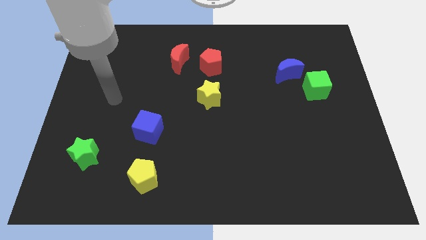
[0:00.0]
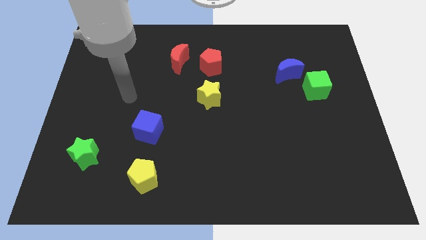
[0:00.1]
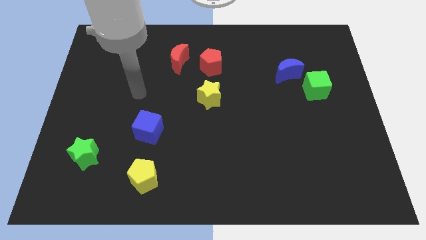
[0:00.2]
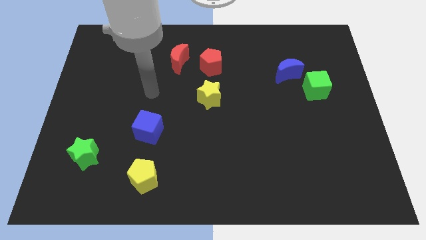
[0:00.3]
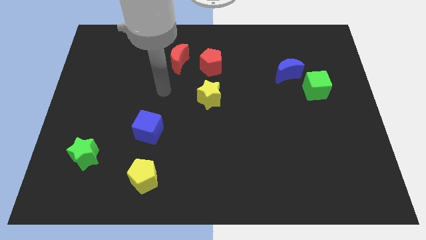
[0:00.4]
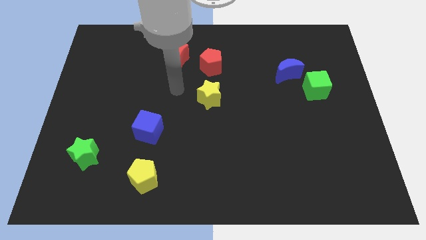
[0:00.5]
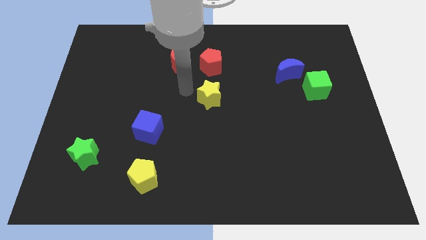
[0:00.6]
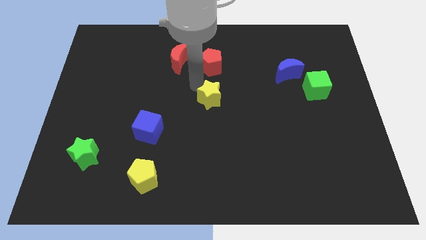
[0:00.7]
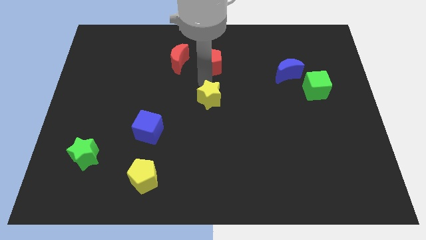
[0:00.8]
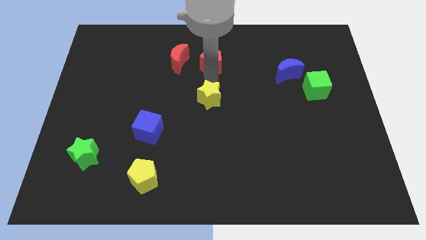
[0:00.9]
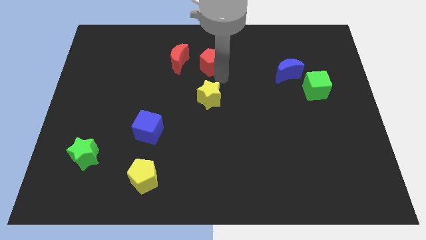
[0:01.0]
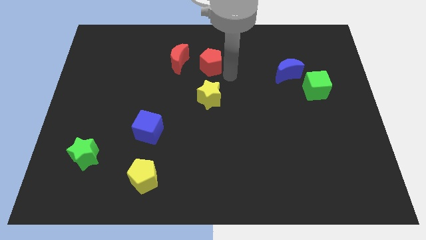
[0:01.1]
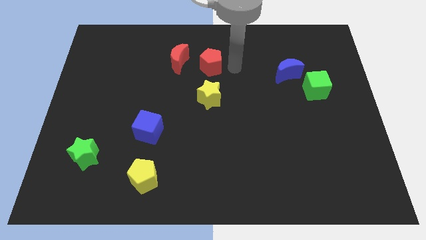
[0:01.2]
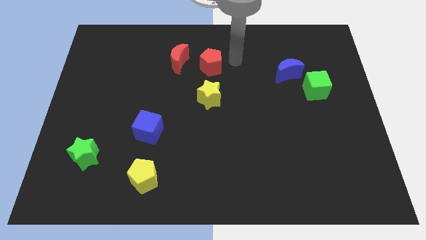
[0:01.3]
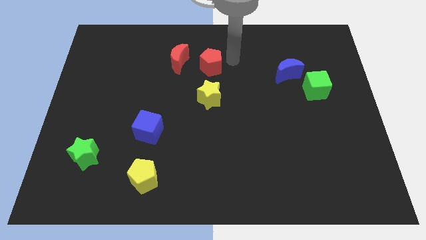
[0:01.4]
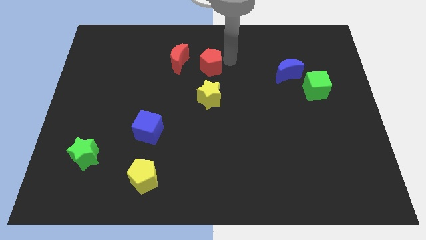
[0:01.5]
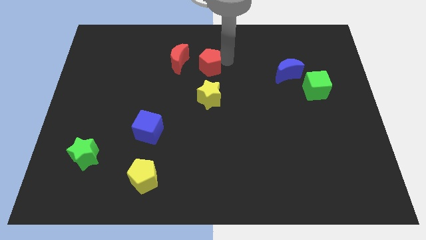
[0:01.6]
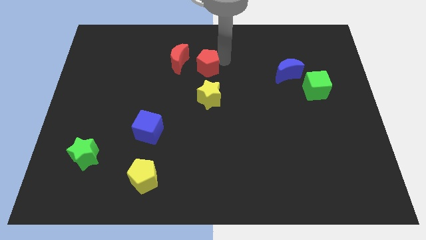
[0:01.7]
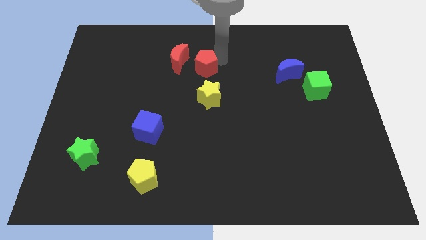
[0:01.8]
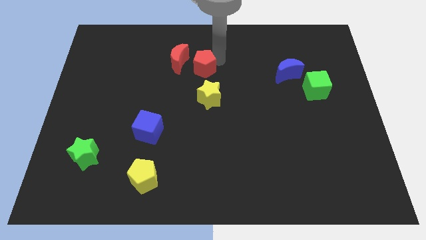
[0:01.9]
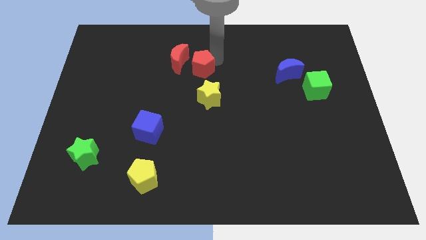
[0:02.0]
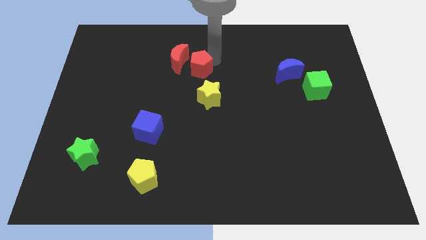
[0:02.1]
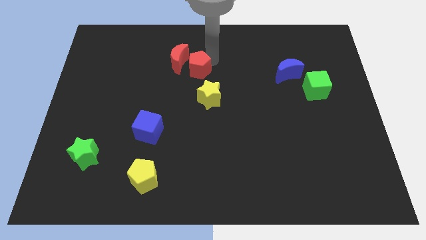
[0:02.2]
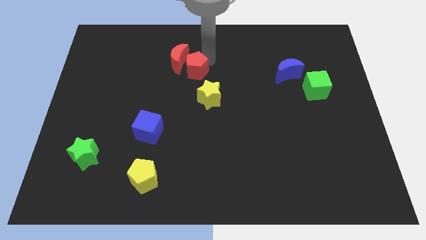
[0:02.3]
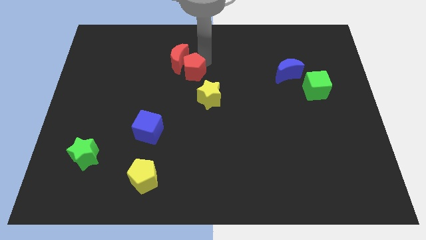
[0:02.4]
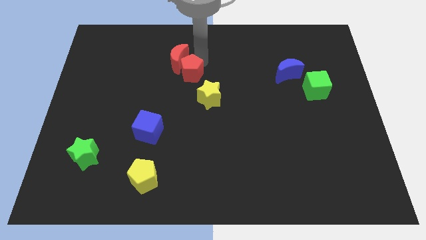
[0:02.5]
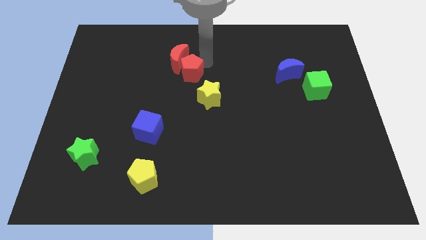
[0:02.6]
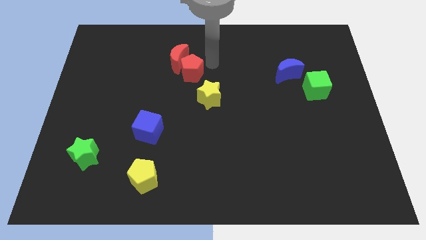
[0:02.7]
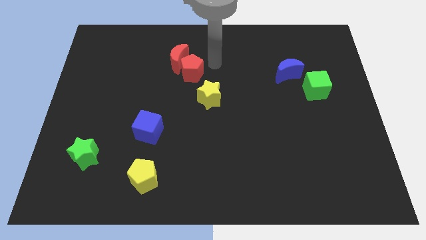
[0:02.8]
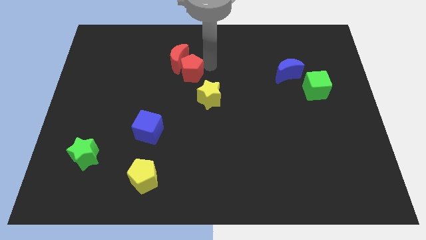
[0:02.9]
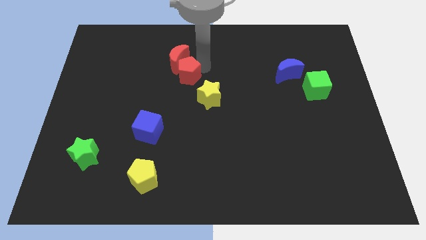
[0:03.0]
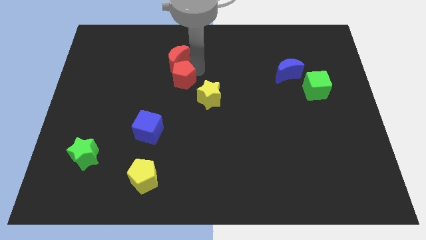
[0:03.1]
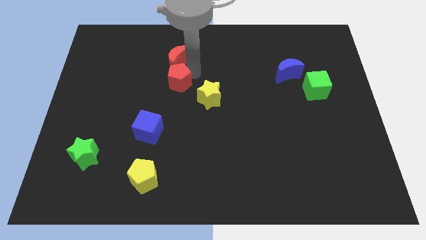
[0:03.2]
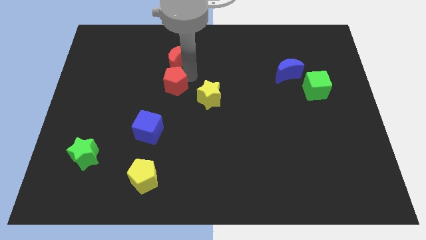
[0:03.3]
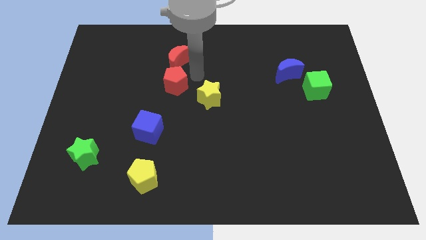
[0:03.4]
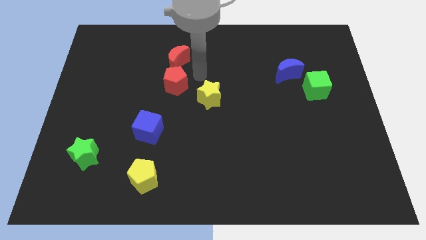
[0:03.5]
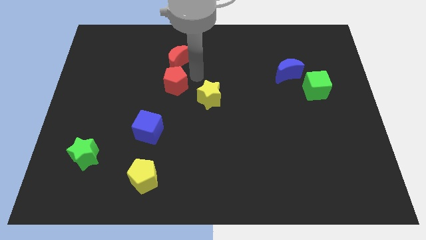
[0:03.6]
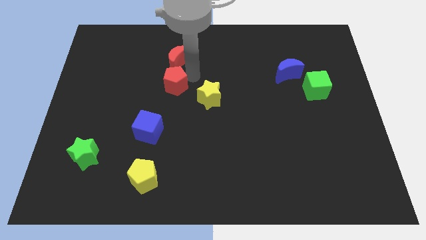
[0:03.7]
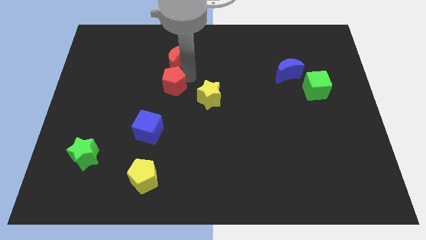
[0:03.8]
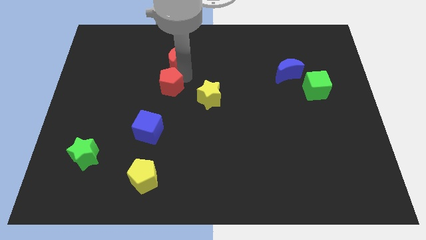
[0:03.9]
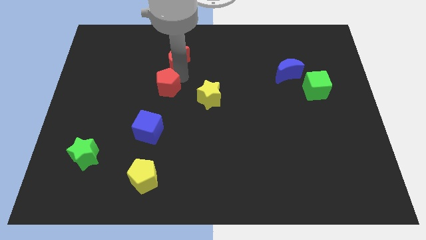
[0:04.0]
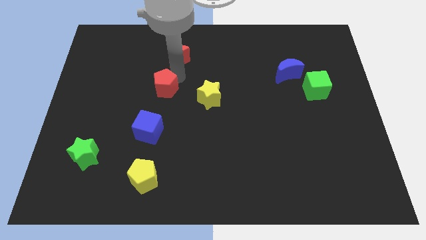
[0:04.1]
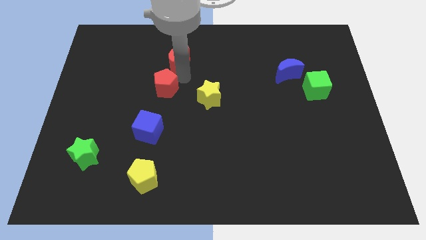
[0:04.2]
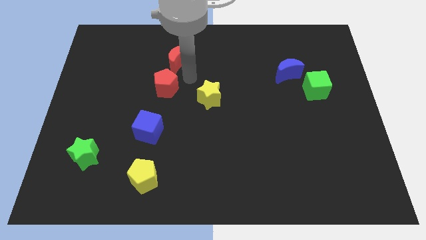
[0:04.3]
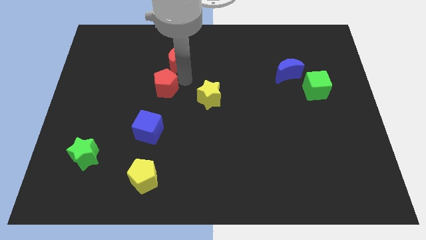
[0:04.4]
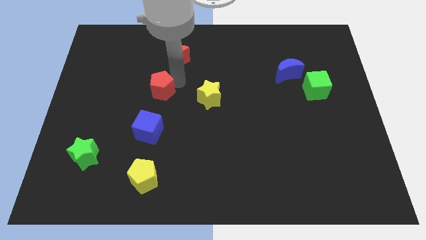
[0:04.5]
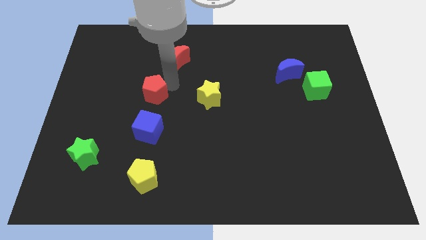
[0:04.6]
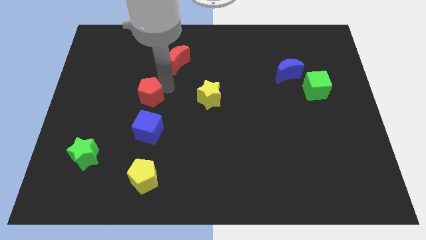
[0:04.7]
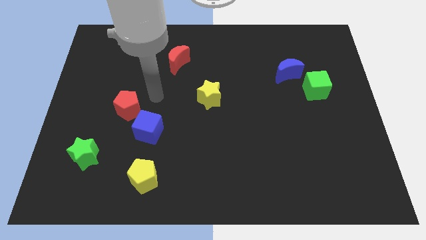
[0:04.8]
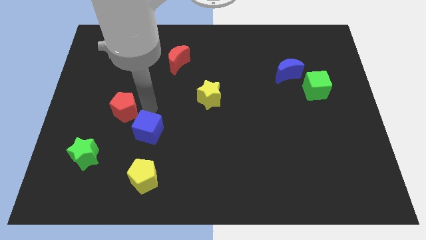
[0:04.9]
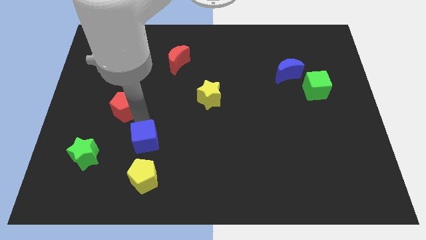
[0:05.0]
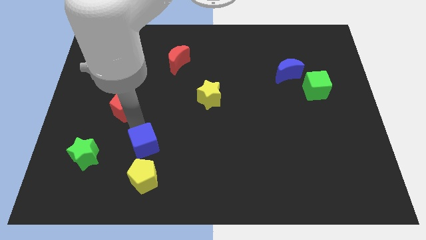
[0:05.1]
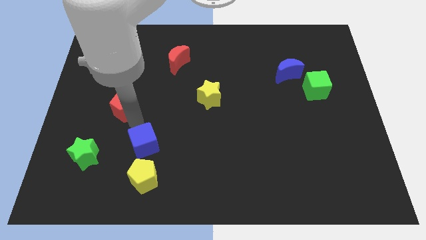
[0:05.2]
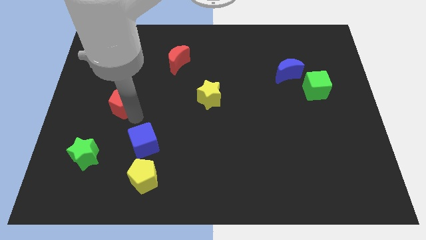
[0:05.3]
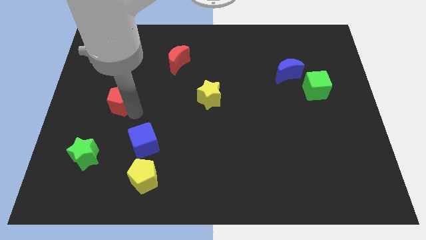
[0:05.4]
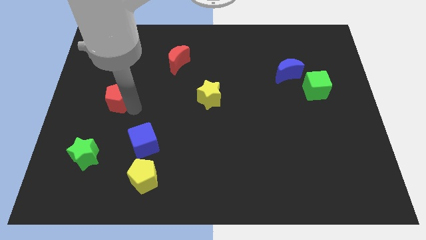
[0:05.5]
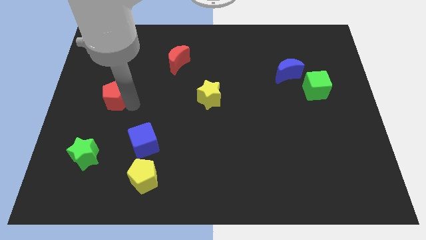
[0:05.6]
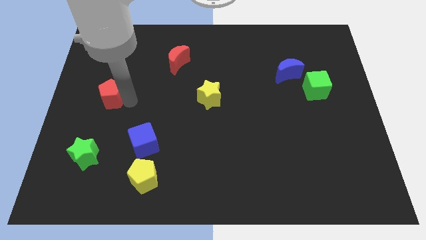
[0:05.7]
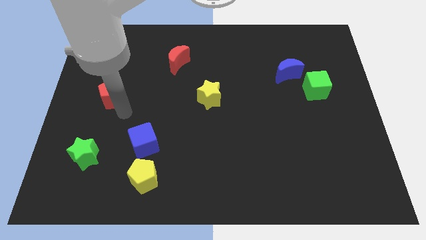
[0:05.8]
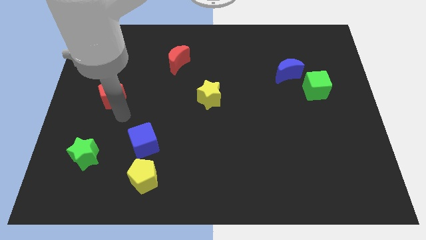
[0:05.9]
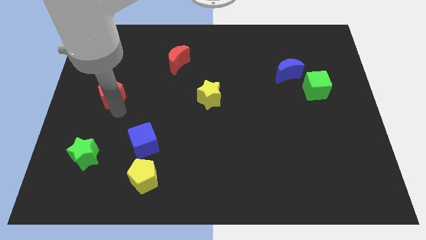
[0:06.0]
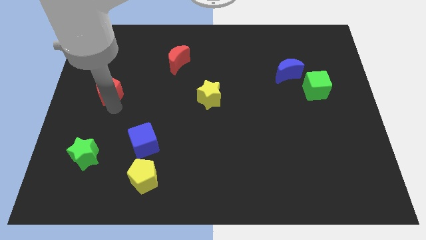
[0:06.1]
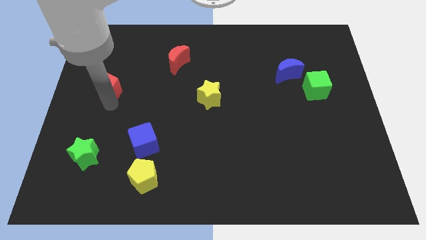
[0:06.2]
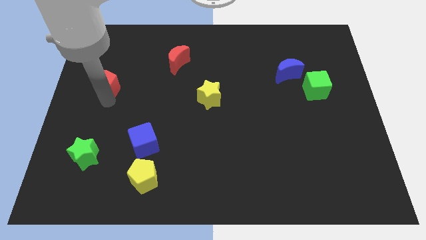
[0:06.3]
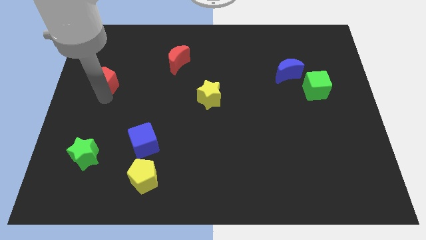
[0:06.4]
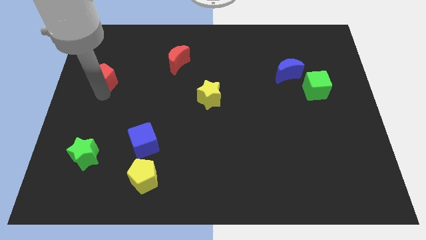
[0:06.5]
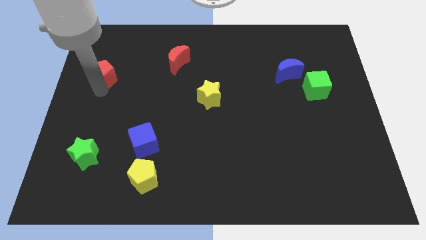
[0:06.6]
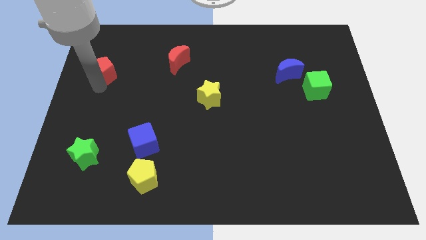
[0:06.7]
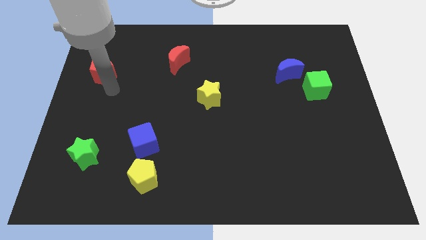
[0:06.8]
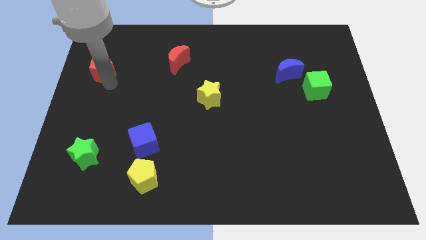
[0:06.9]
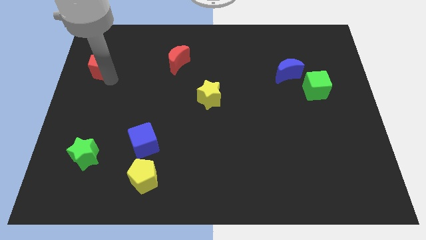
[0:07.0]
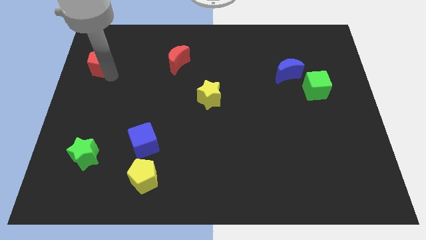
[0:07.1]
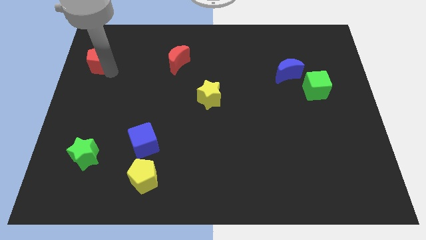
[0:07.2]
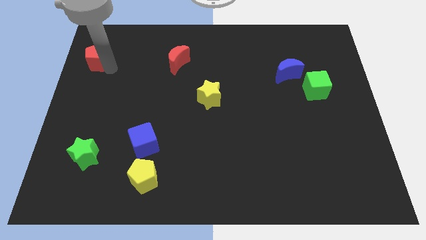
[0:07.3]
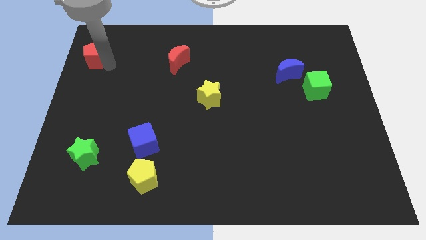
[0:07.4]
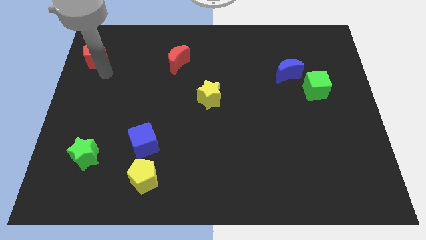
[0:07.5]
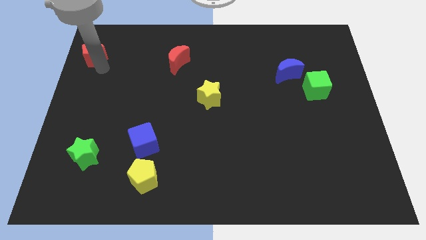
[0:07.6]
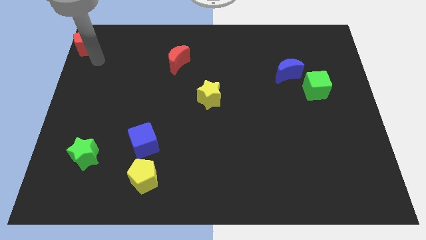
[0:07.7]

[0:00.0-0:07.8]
put the red pentagon to the top left
